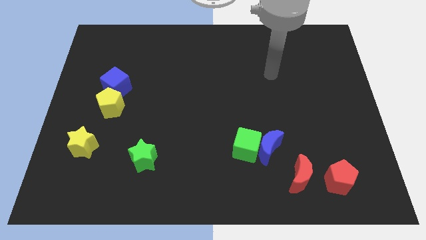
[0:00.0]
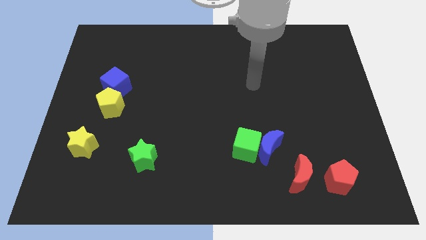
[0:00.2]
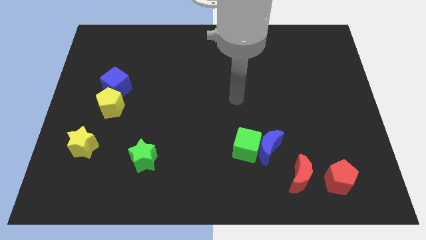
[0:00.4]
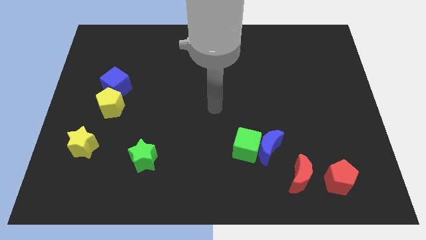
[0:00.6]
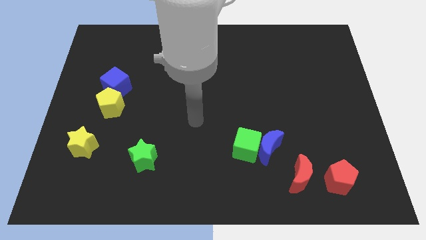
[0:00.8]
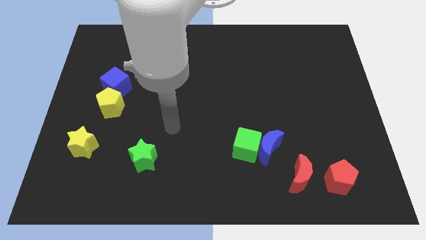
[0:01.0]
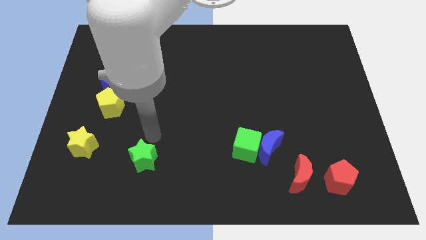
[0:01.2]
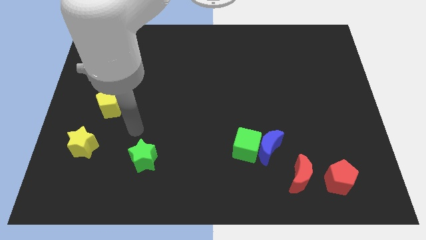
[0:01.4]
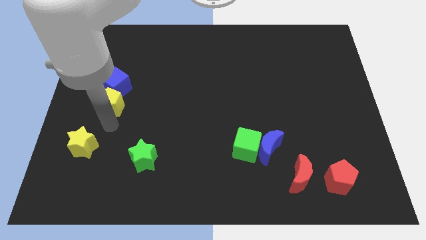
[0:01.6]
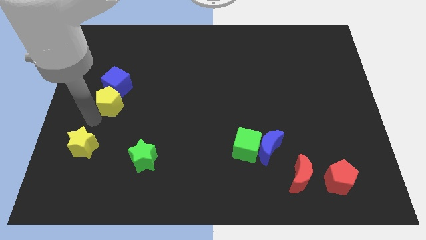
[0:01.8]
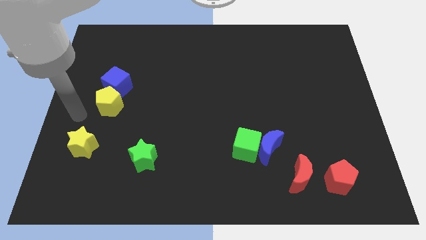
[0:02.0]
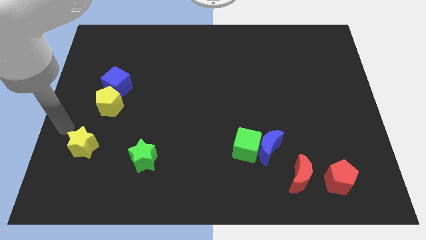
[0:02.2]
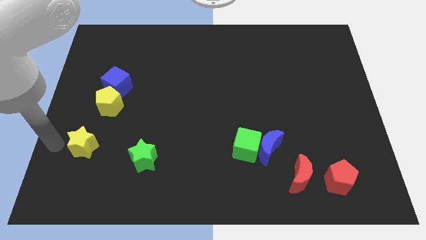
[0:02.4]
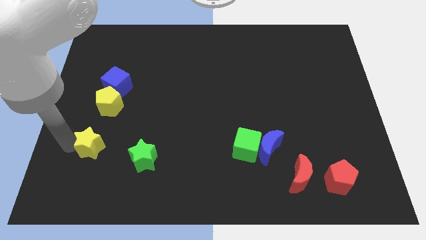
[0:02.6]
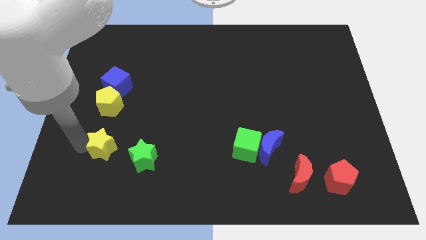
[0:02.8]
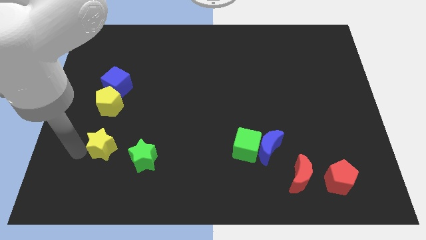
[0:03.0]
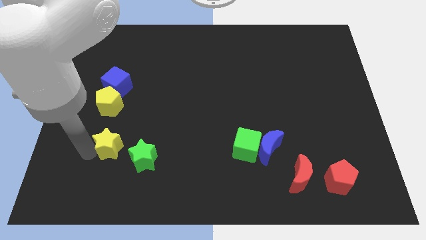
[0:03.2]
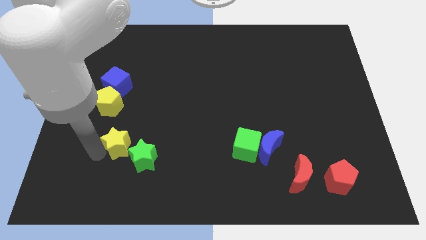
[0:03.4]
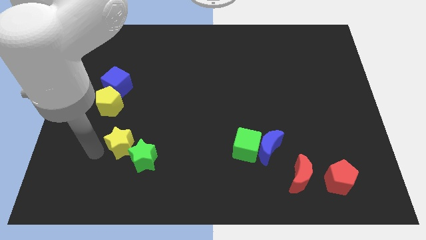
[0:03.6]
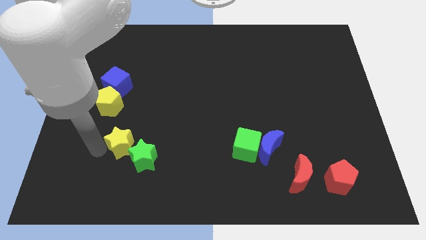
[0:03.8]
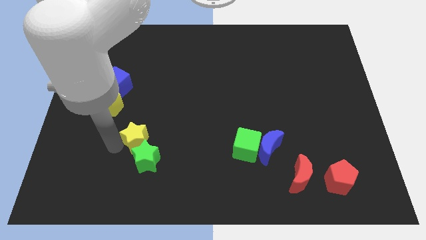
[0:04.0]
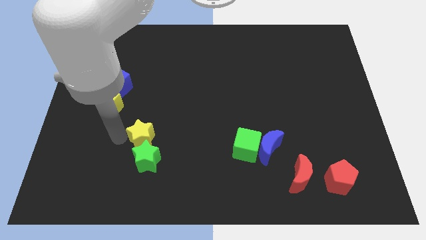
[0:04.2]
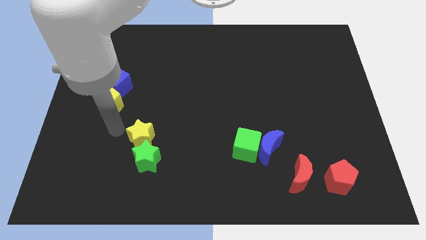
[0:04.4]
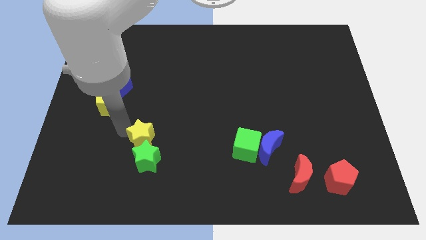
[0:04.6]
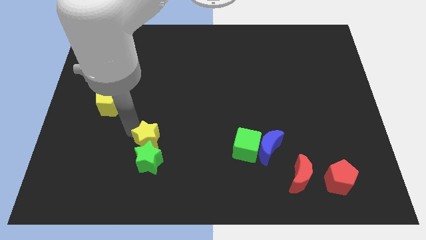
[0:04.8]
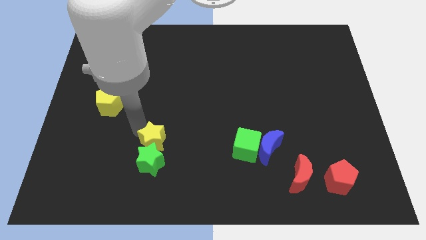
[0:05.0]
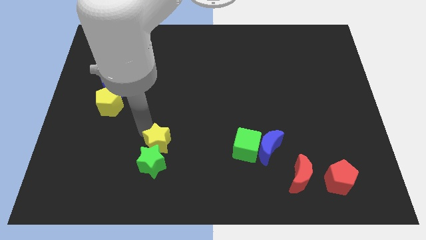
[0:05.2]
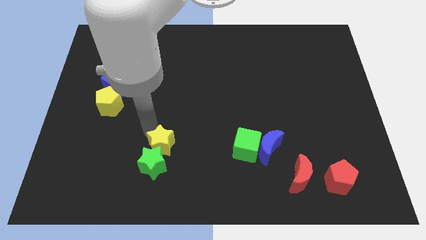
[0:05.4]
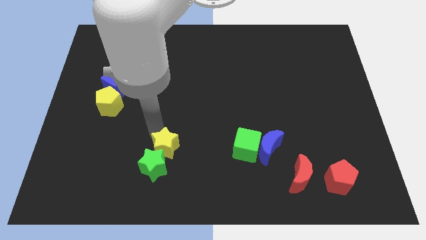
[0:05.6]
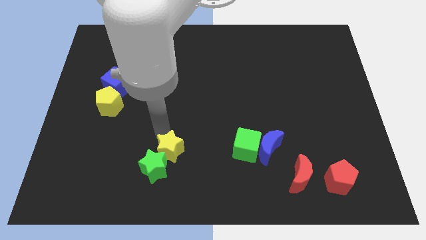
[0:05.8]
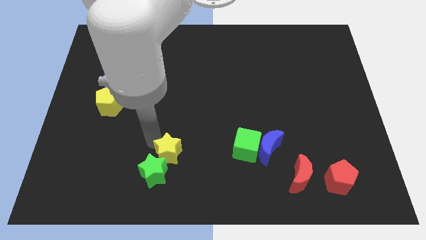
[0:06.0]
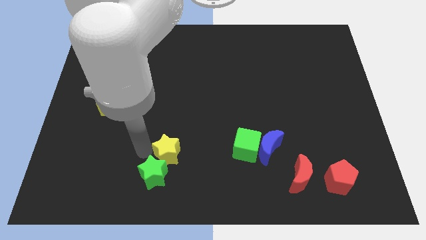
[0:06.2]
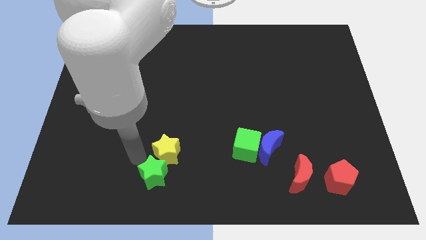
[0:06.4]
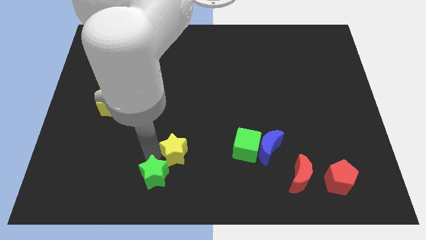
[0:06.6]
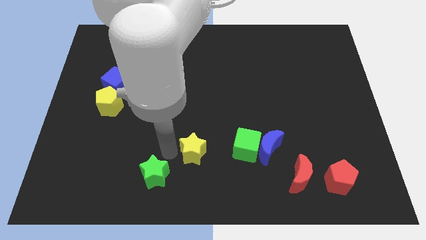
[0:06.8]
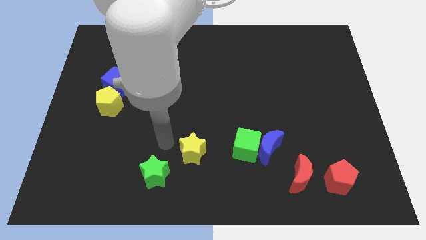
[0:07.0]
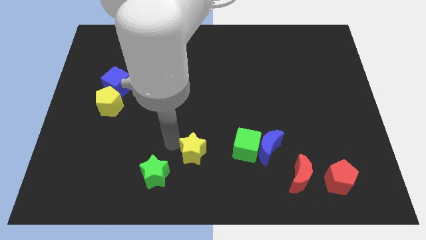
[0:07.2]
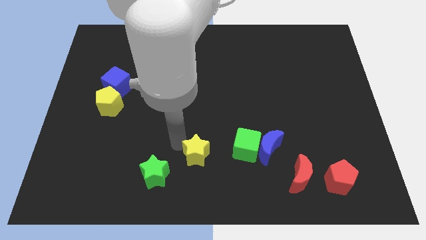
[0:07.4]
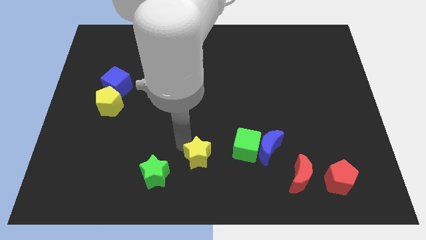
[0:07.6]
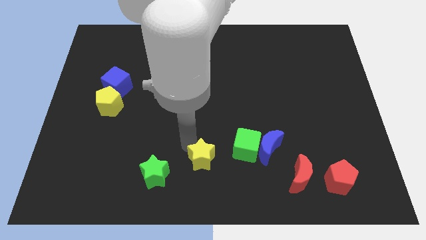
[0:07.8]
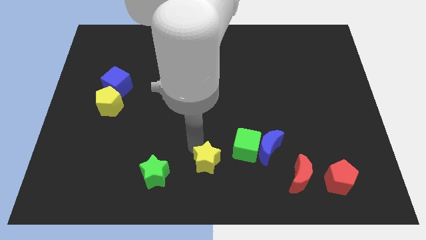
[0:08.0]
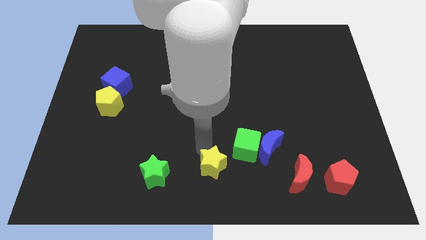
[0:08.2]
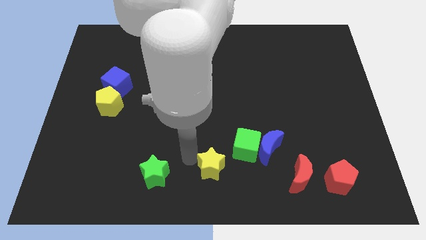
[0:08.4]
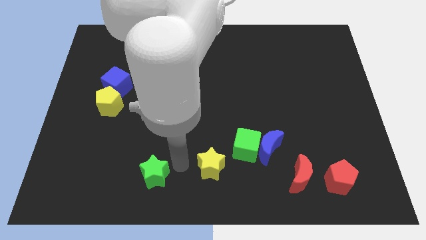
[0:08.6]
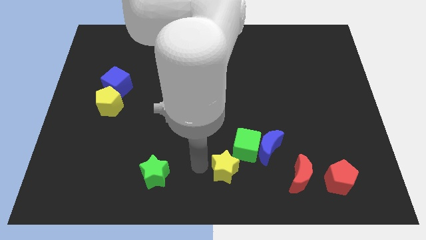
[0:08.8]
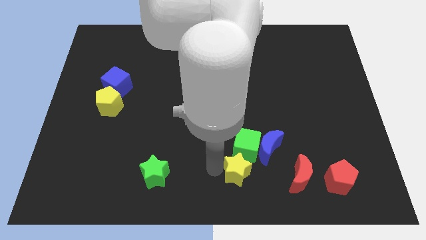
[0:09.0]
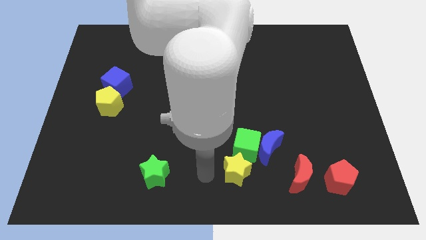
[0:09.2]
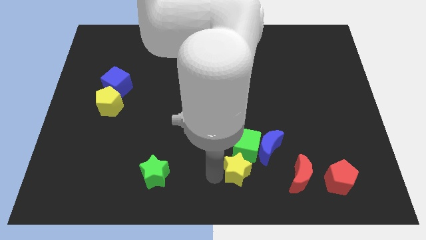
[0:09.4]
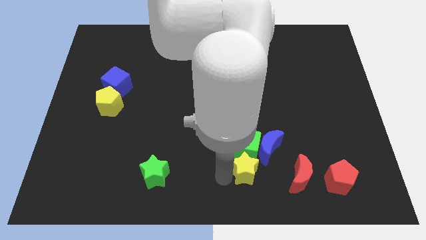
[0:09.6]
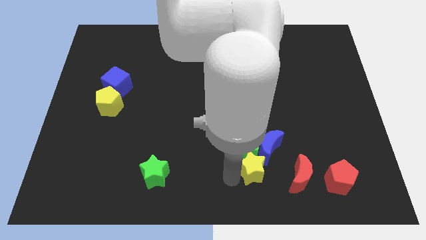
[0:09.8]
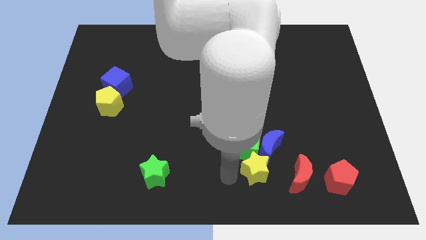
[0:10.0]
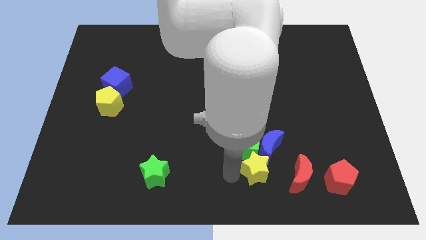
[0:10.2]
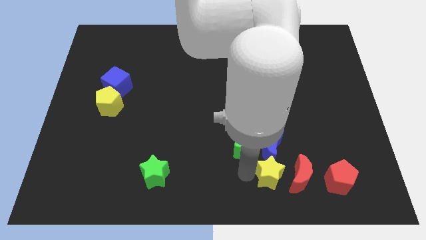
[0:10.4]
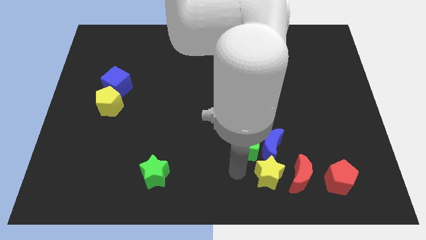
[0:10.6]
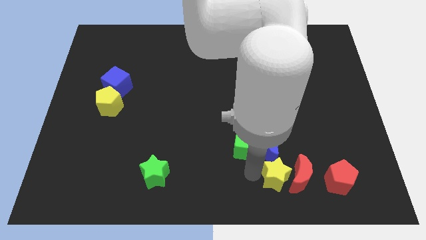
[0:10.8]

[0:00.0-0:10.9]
move the yellow star close to the red moon

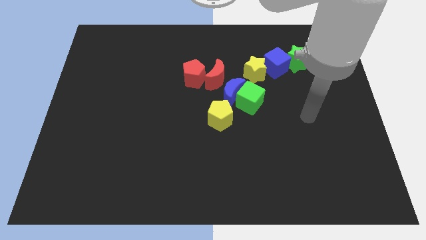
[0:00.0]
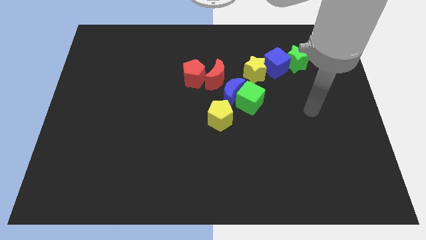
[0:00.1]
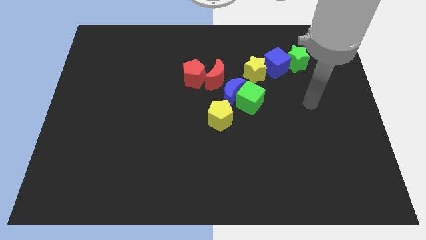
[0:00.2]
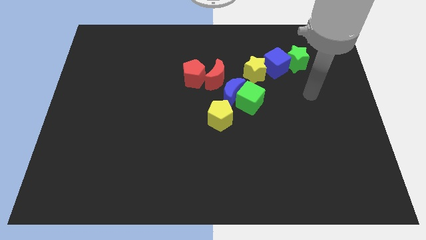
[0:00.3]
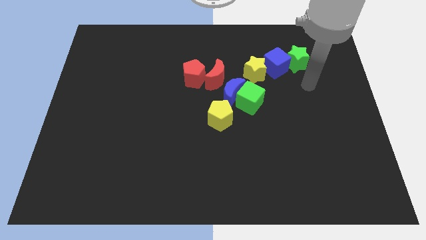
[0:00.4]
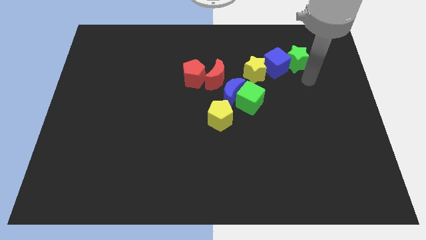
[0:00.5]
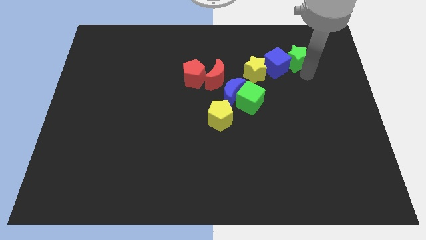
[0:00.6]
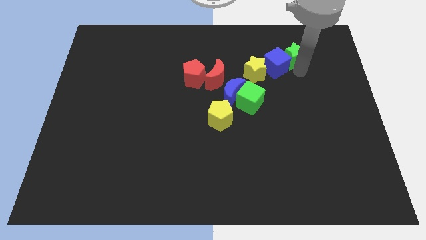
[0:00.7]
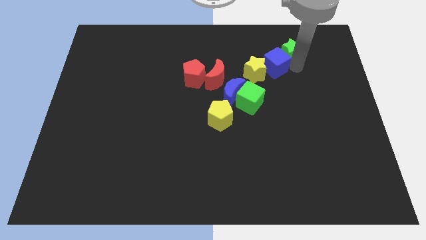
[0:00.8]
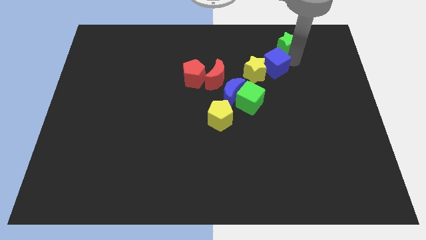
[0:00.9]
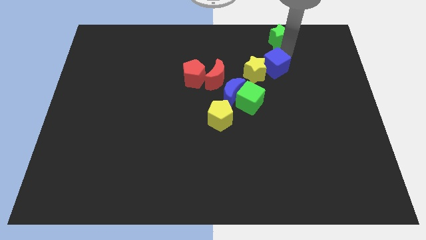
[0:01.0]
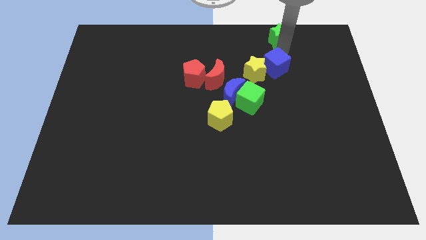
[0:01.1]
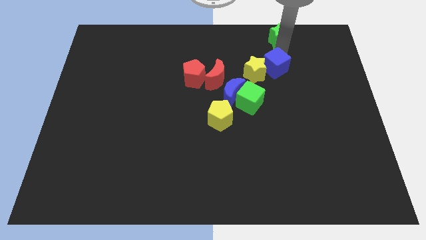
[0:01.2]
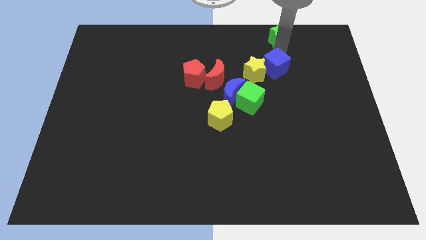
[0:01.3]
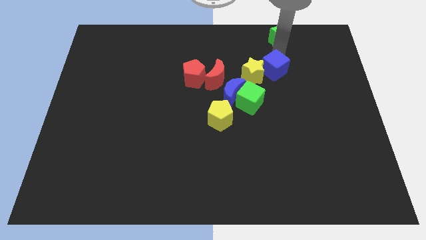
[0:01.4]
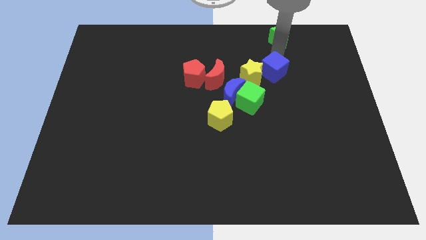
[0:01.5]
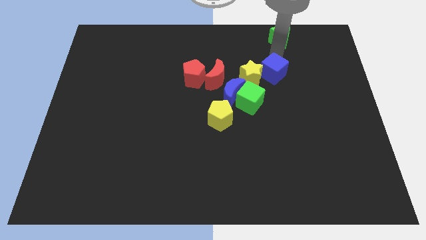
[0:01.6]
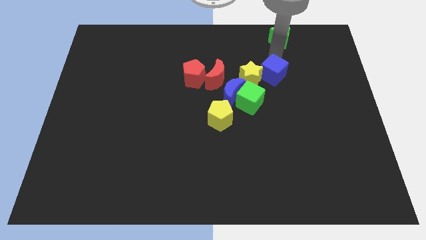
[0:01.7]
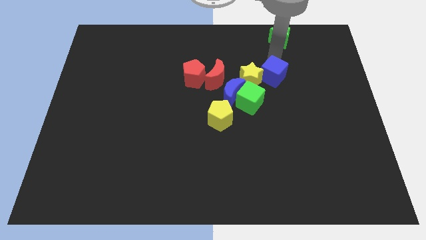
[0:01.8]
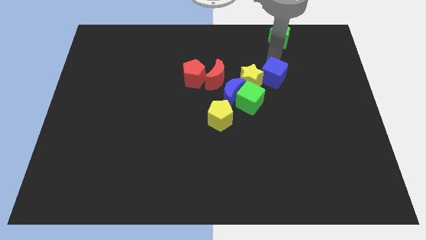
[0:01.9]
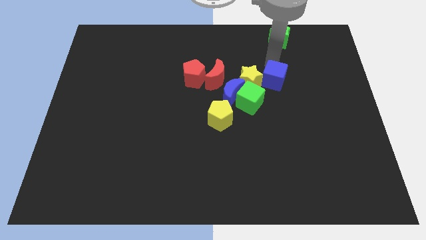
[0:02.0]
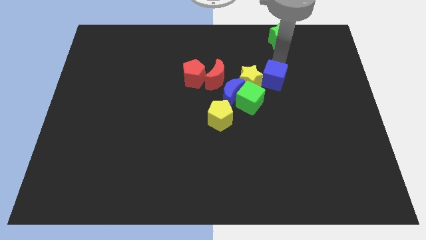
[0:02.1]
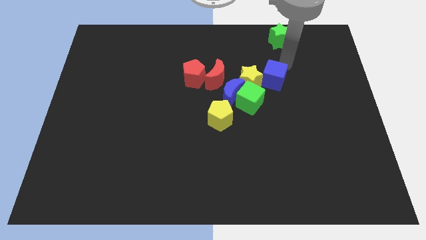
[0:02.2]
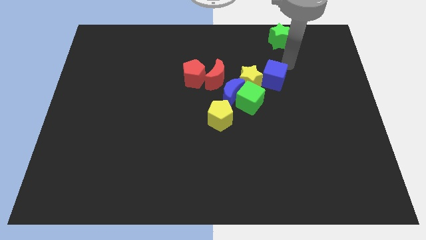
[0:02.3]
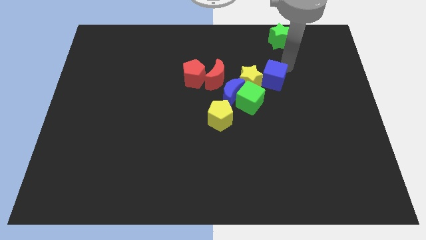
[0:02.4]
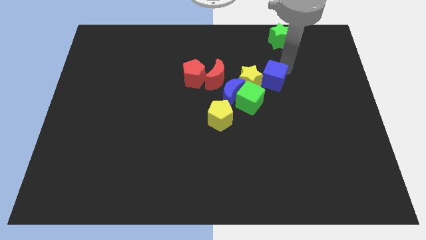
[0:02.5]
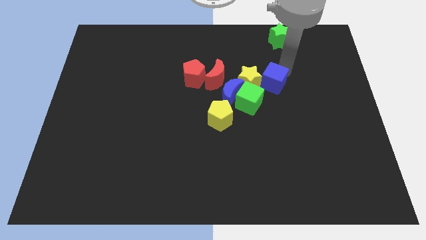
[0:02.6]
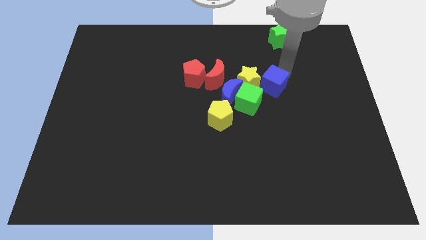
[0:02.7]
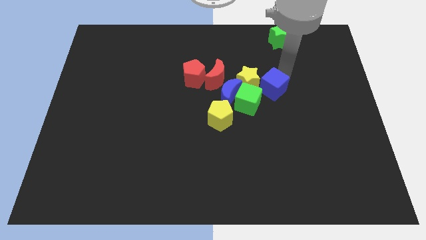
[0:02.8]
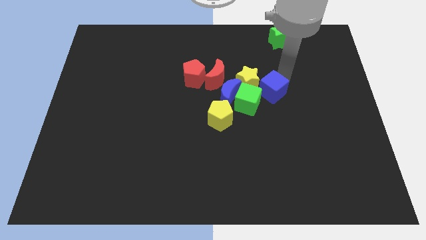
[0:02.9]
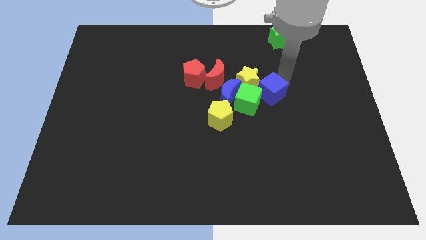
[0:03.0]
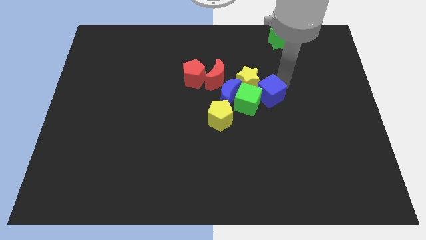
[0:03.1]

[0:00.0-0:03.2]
move the blue cube next to the green cube
